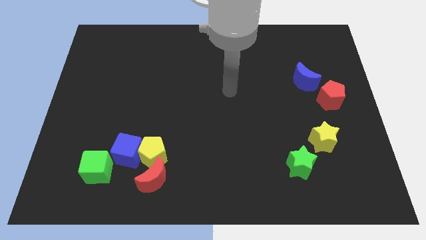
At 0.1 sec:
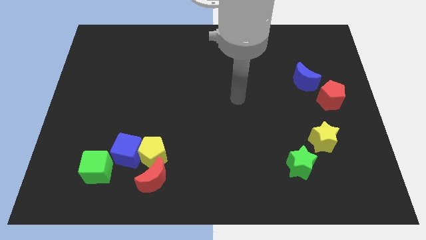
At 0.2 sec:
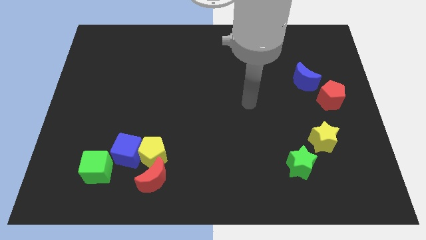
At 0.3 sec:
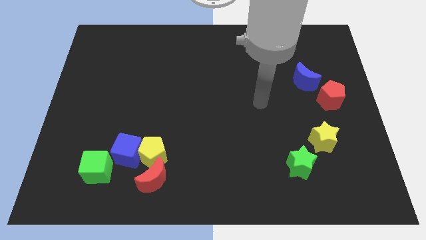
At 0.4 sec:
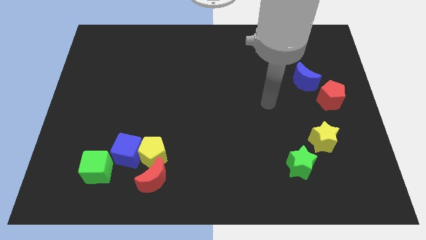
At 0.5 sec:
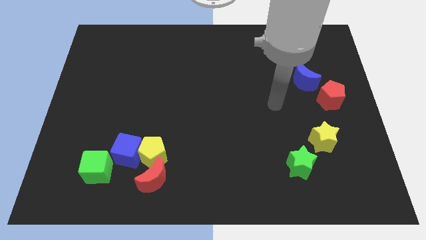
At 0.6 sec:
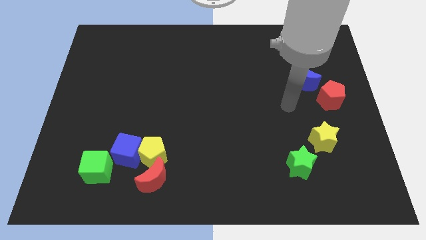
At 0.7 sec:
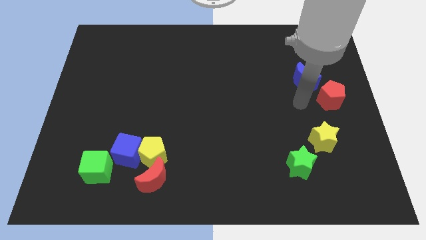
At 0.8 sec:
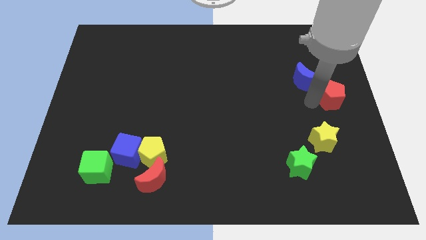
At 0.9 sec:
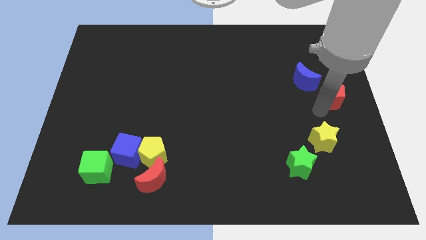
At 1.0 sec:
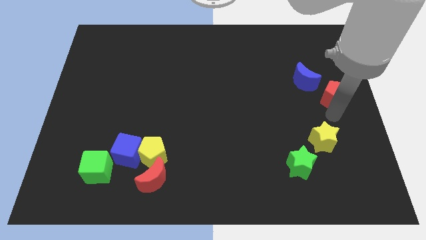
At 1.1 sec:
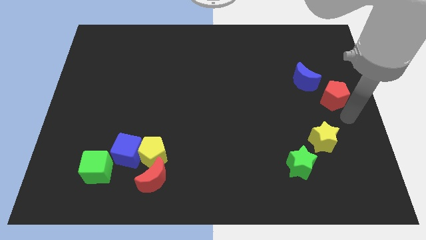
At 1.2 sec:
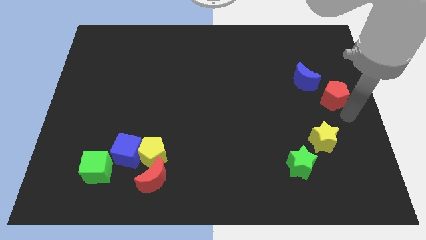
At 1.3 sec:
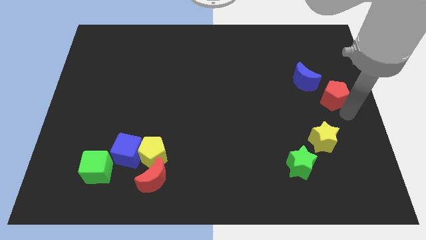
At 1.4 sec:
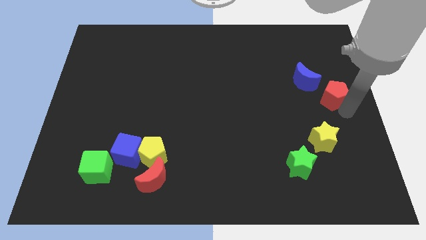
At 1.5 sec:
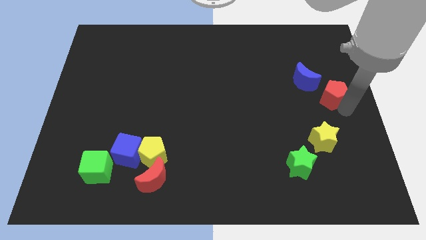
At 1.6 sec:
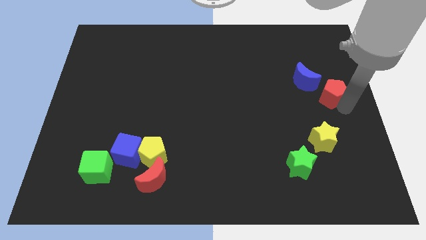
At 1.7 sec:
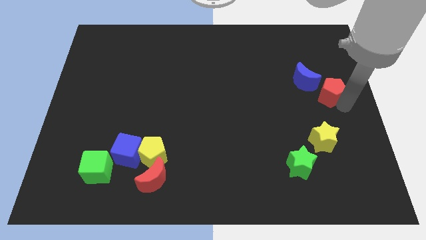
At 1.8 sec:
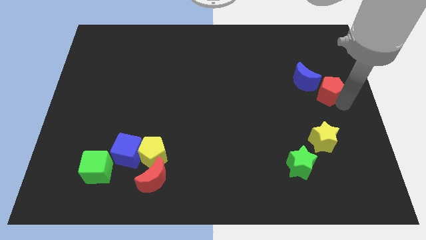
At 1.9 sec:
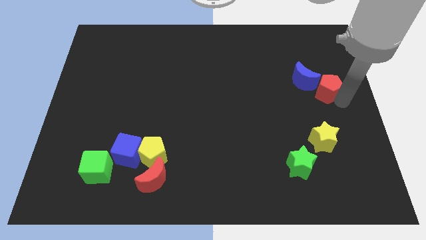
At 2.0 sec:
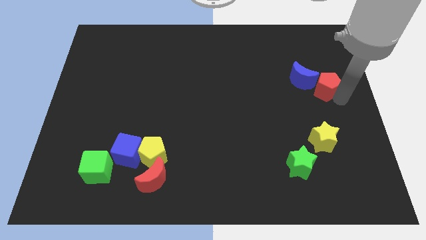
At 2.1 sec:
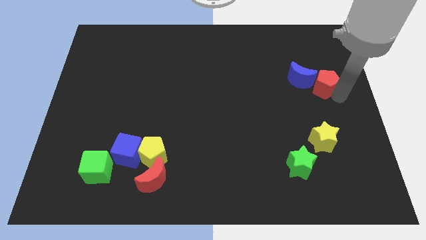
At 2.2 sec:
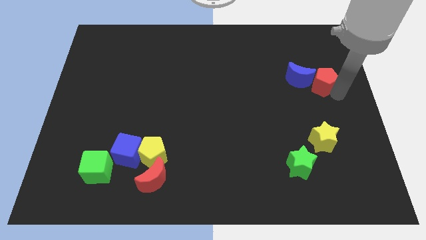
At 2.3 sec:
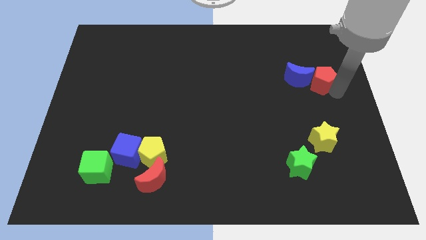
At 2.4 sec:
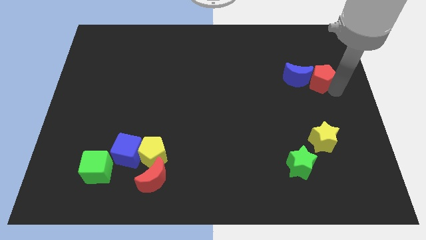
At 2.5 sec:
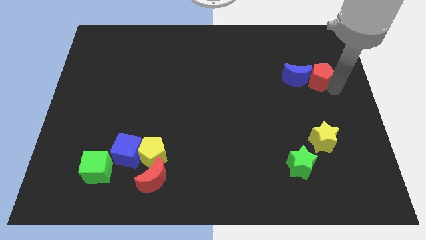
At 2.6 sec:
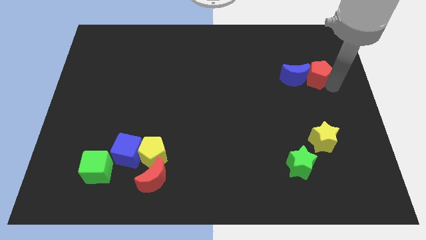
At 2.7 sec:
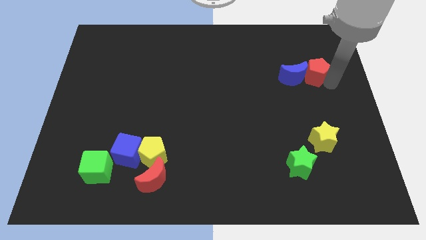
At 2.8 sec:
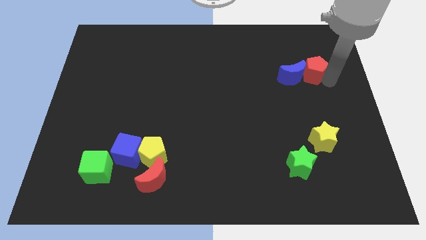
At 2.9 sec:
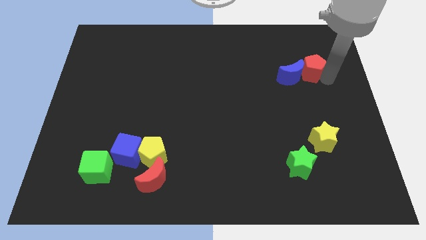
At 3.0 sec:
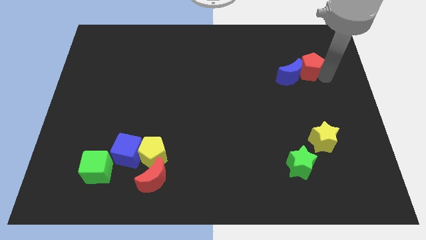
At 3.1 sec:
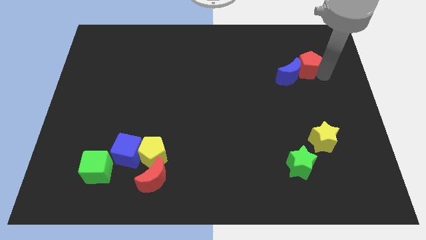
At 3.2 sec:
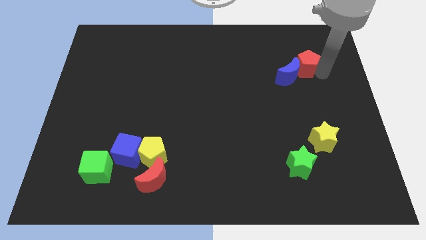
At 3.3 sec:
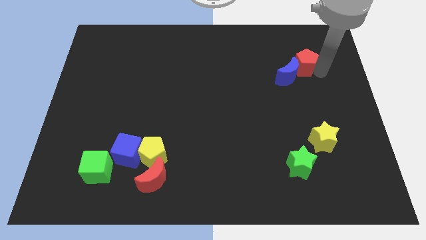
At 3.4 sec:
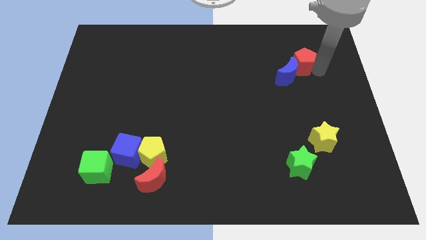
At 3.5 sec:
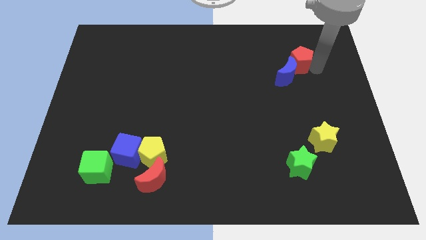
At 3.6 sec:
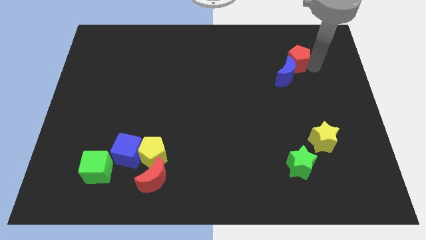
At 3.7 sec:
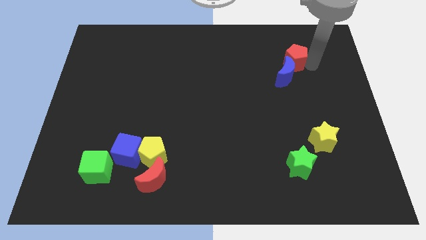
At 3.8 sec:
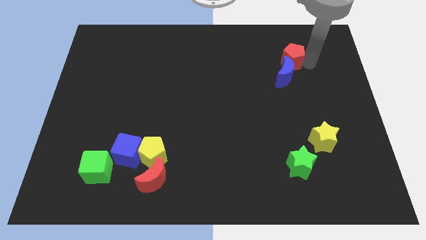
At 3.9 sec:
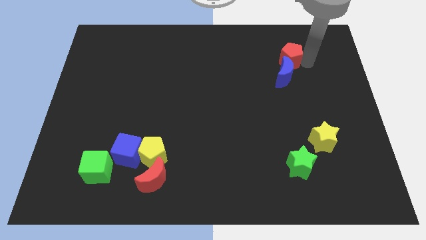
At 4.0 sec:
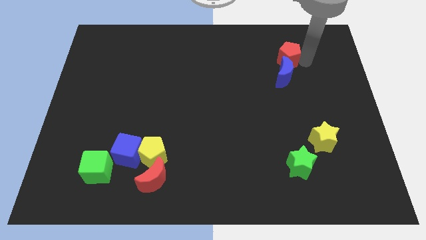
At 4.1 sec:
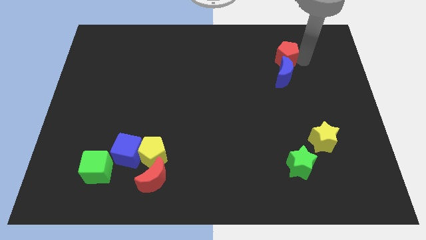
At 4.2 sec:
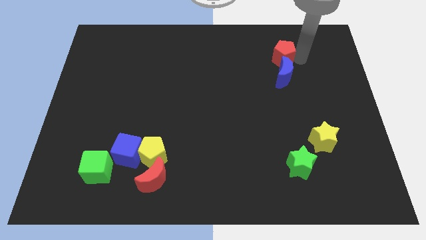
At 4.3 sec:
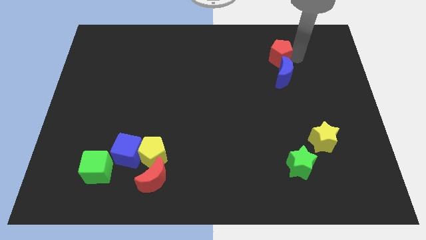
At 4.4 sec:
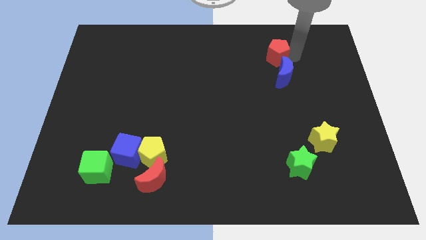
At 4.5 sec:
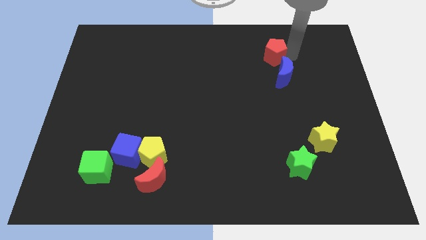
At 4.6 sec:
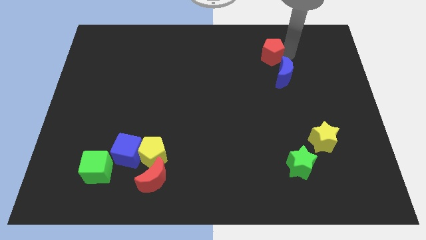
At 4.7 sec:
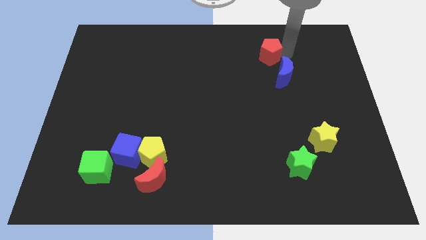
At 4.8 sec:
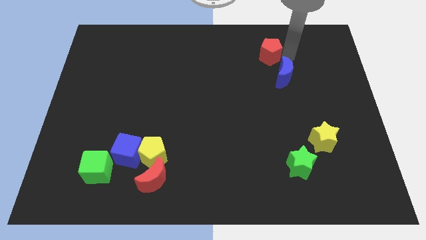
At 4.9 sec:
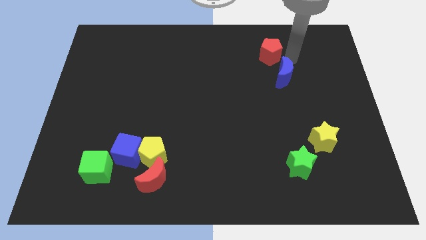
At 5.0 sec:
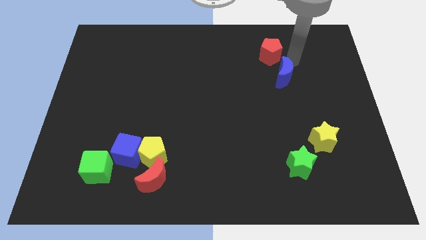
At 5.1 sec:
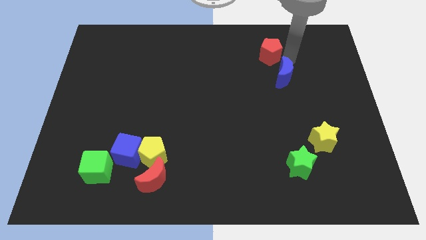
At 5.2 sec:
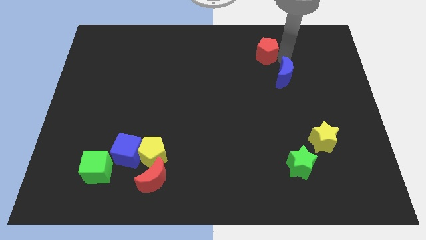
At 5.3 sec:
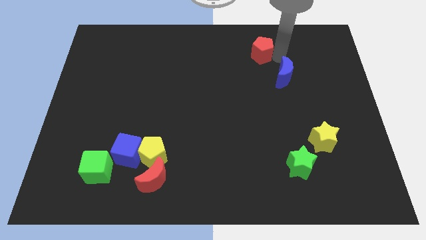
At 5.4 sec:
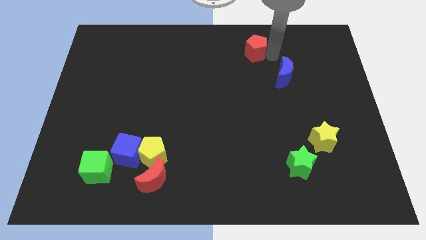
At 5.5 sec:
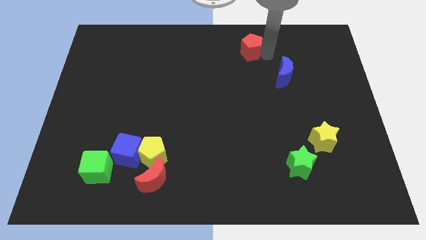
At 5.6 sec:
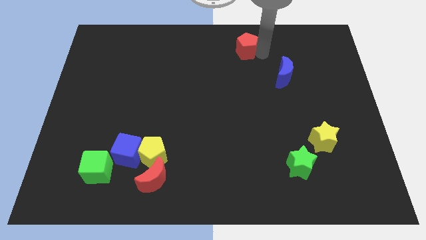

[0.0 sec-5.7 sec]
push the red pentagon to the towards your base

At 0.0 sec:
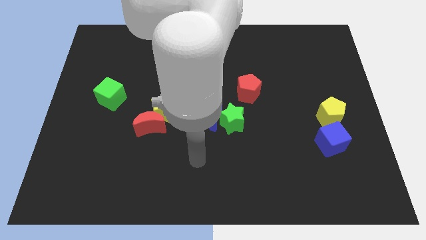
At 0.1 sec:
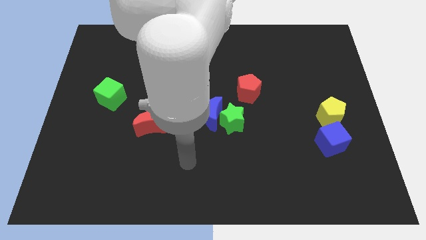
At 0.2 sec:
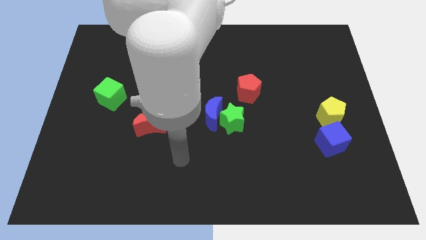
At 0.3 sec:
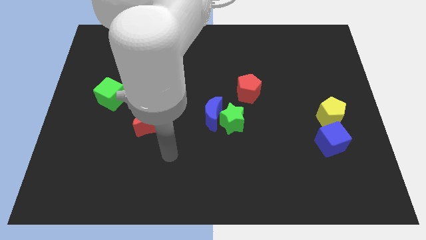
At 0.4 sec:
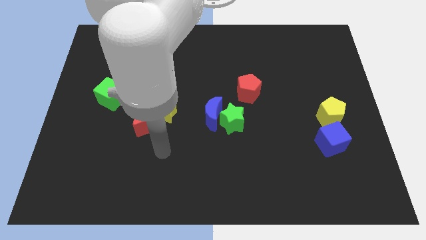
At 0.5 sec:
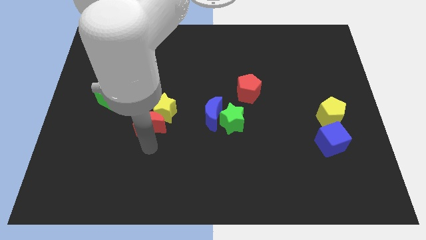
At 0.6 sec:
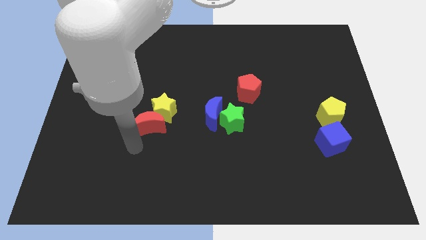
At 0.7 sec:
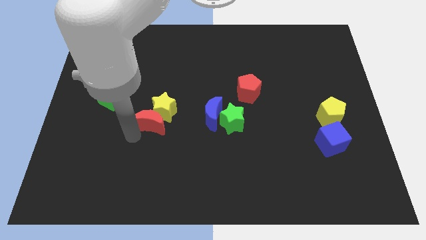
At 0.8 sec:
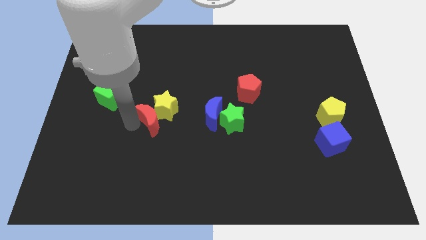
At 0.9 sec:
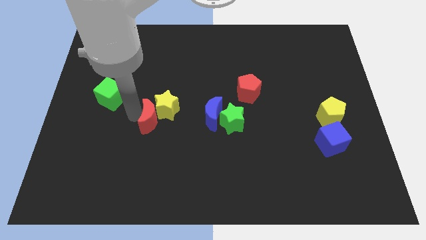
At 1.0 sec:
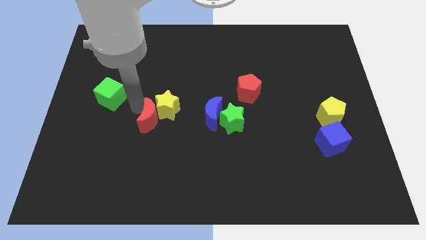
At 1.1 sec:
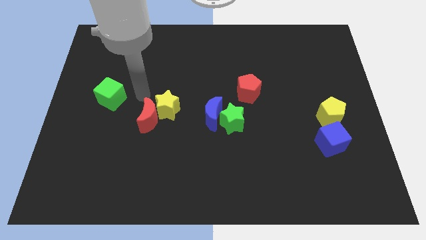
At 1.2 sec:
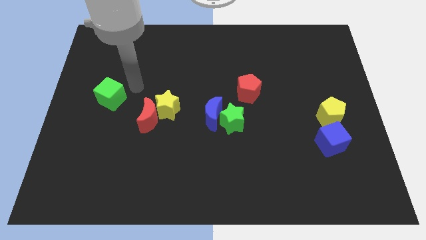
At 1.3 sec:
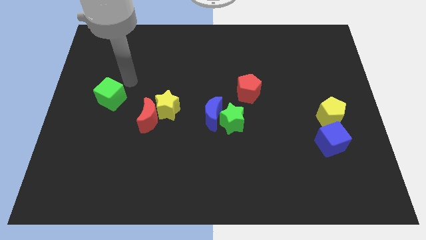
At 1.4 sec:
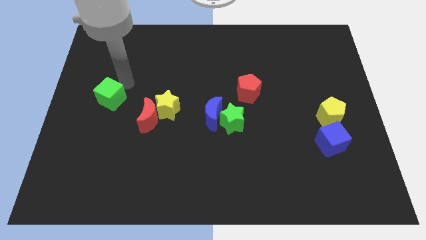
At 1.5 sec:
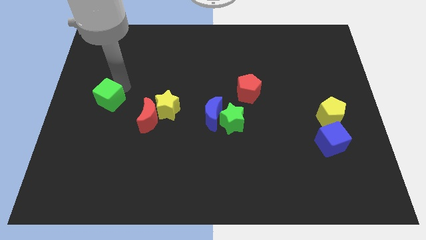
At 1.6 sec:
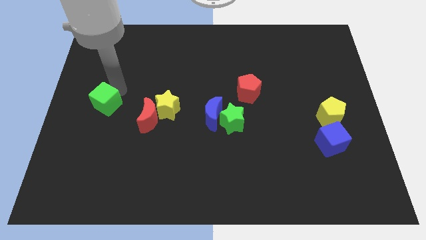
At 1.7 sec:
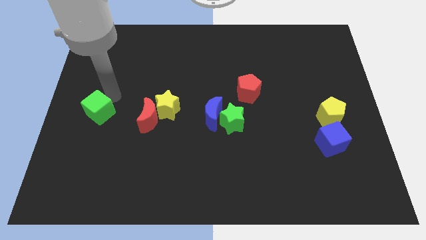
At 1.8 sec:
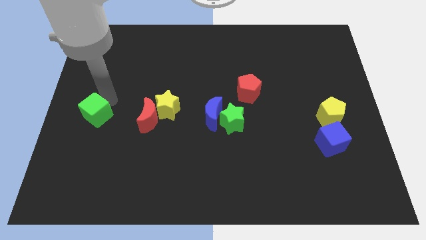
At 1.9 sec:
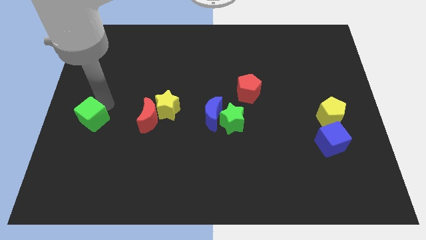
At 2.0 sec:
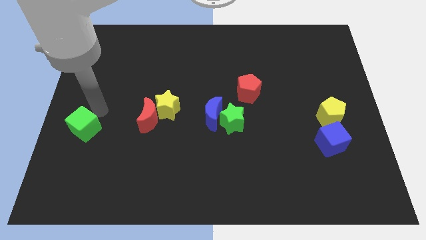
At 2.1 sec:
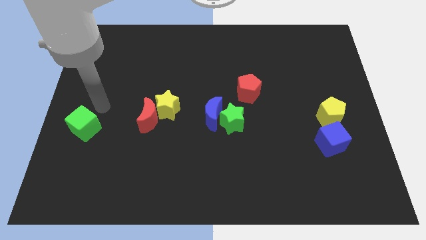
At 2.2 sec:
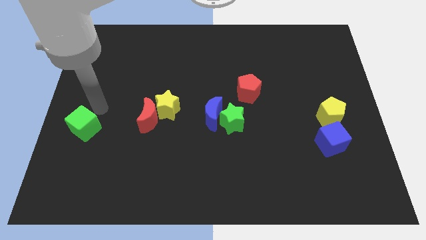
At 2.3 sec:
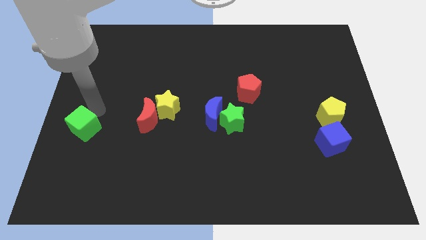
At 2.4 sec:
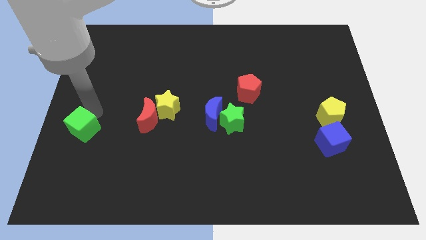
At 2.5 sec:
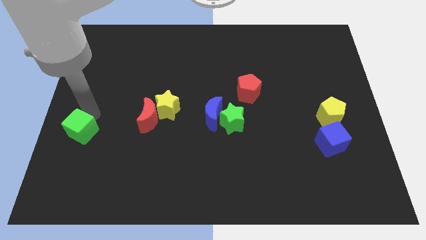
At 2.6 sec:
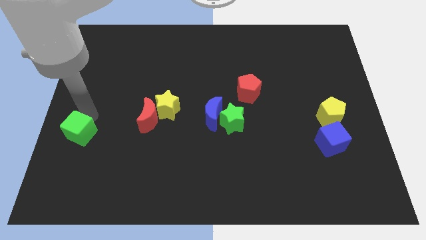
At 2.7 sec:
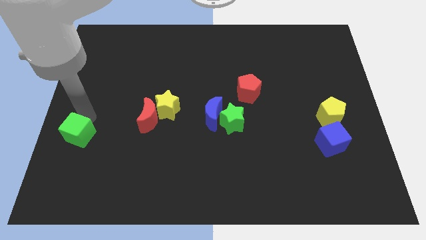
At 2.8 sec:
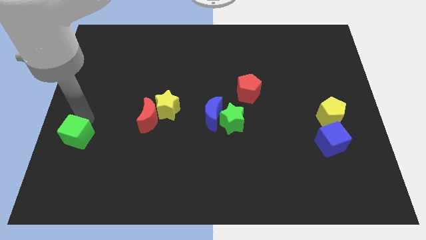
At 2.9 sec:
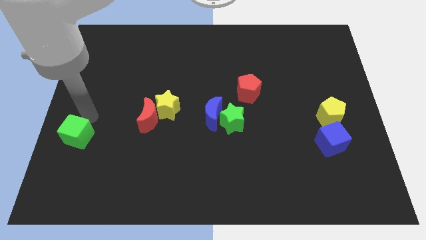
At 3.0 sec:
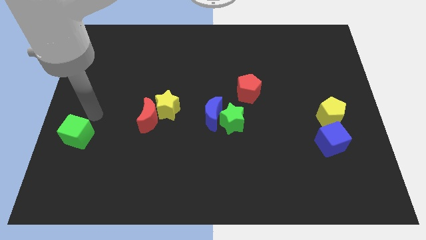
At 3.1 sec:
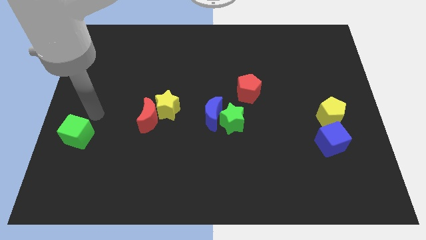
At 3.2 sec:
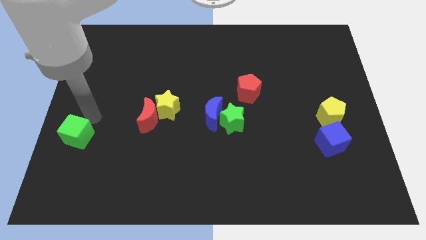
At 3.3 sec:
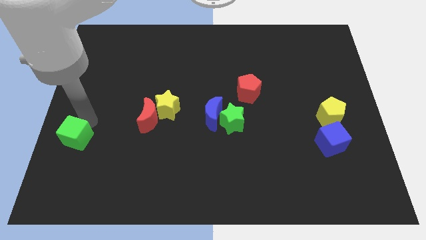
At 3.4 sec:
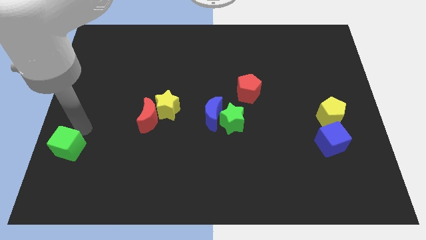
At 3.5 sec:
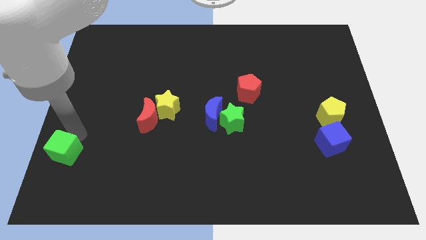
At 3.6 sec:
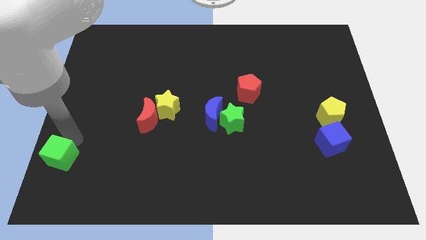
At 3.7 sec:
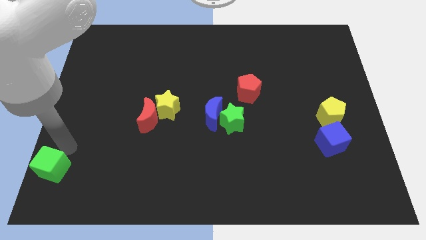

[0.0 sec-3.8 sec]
move the green cube to the bottom left
